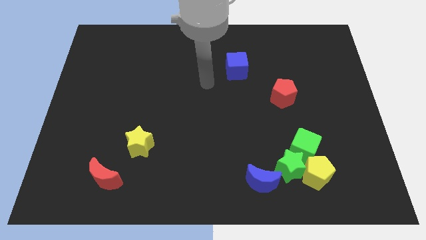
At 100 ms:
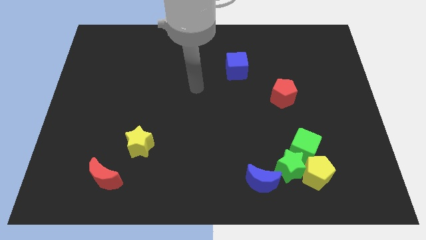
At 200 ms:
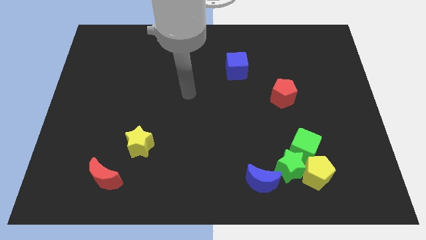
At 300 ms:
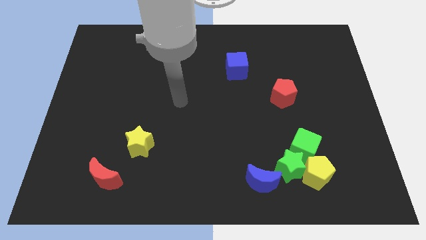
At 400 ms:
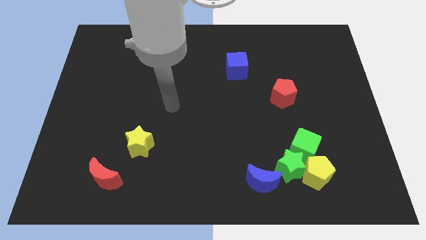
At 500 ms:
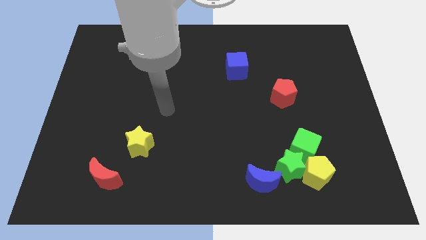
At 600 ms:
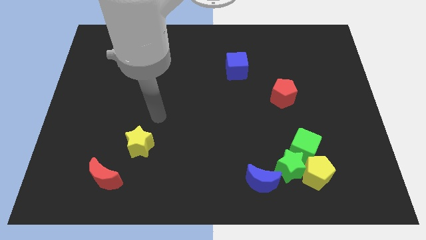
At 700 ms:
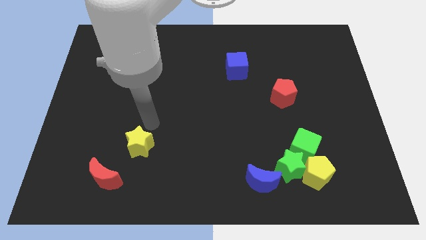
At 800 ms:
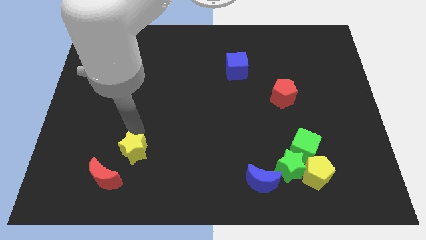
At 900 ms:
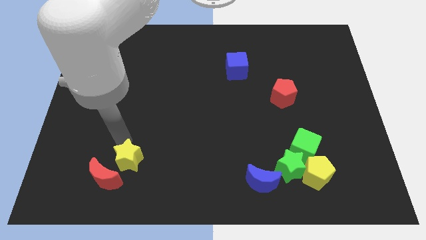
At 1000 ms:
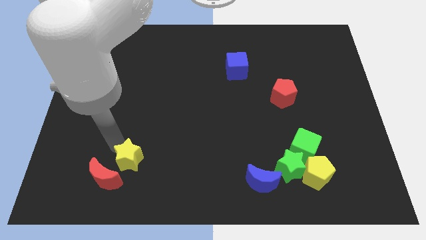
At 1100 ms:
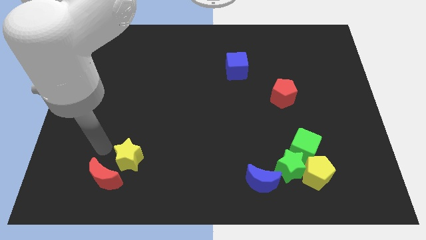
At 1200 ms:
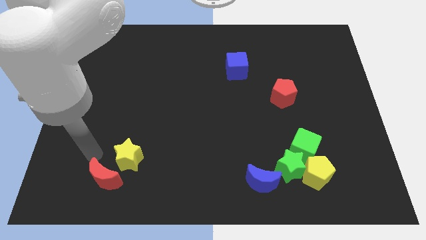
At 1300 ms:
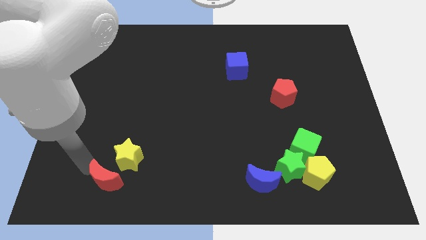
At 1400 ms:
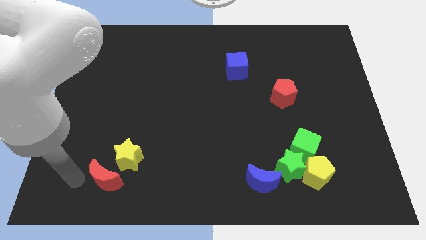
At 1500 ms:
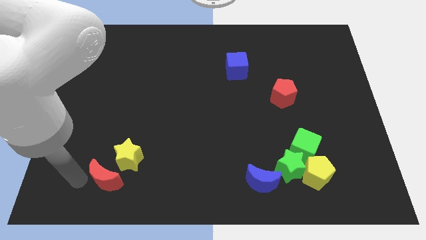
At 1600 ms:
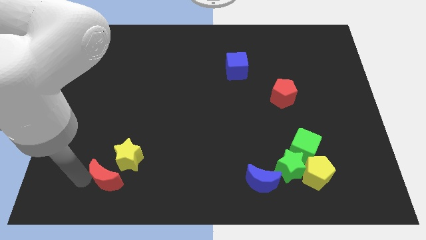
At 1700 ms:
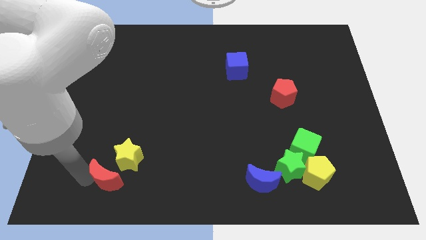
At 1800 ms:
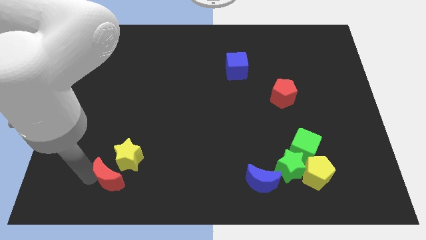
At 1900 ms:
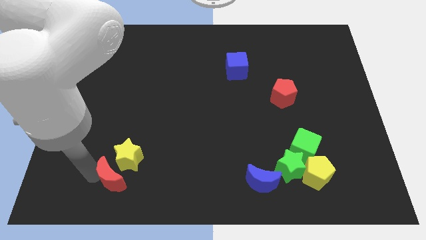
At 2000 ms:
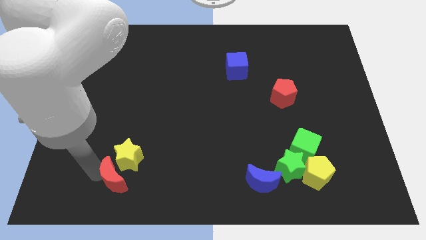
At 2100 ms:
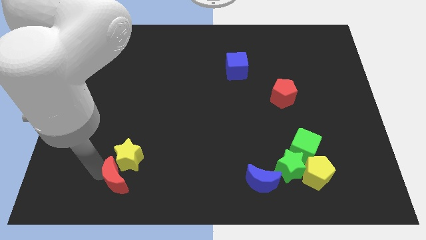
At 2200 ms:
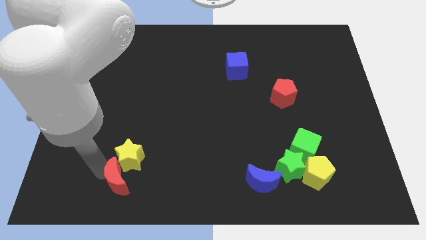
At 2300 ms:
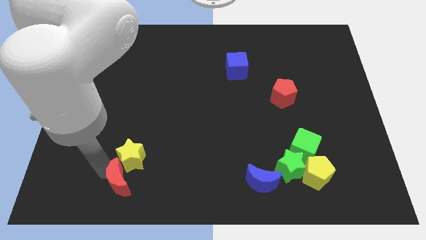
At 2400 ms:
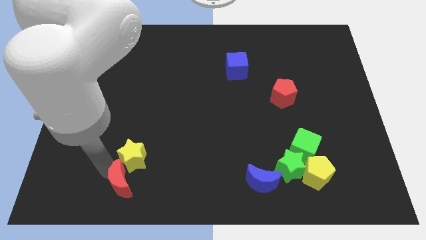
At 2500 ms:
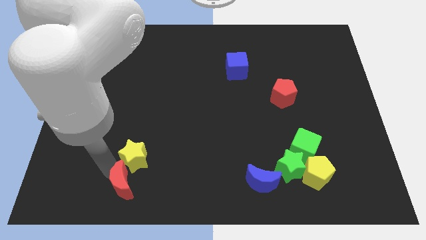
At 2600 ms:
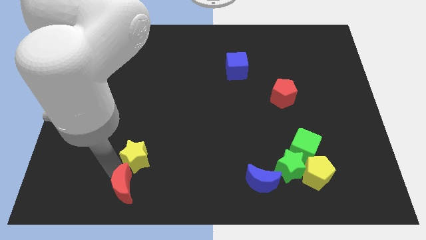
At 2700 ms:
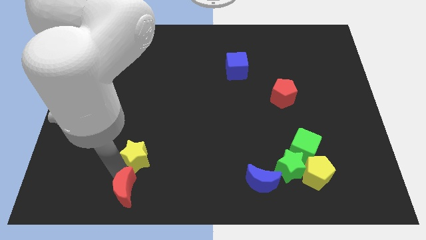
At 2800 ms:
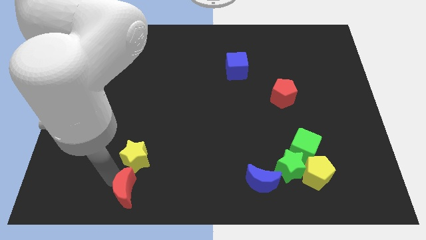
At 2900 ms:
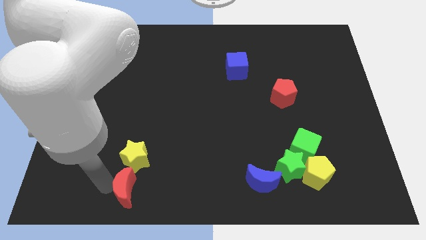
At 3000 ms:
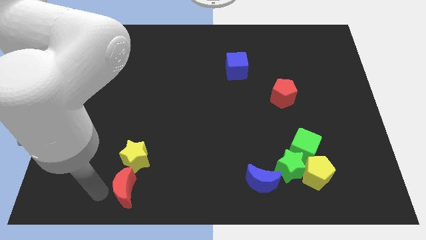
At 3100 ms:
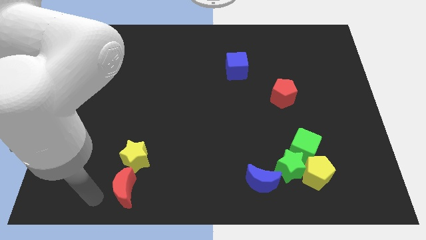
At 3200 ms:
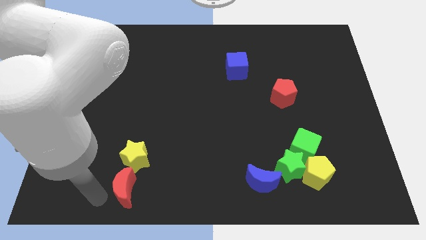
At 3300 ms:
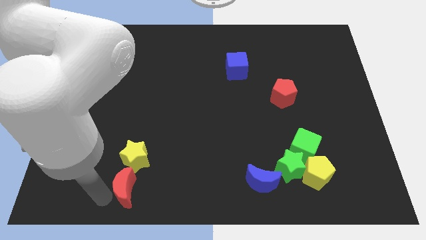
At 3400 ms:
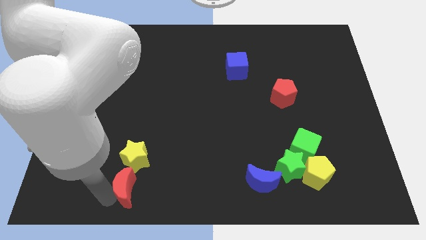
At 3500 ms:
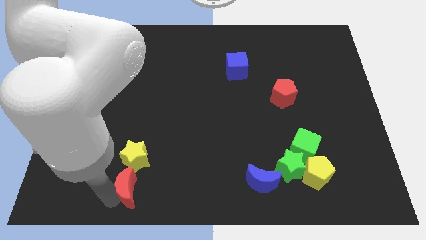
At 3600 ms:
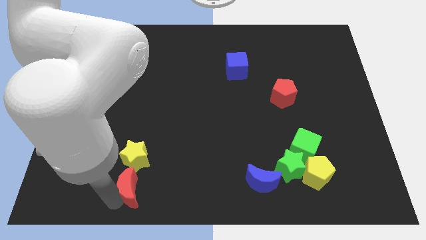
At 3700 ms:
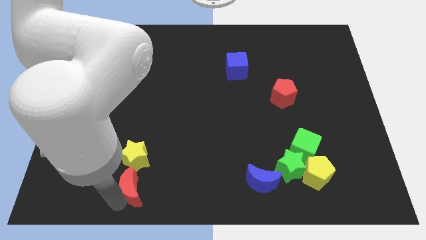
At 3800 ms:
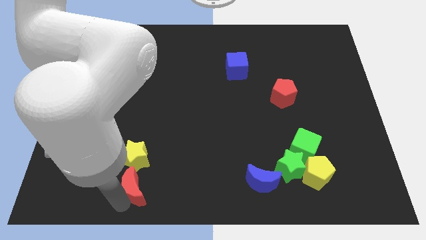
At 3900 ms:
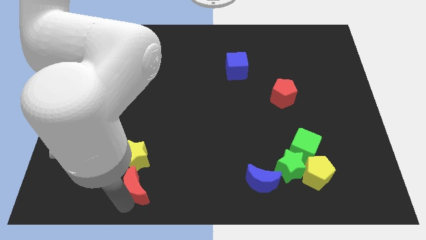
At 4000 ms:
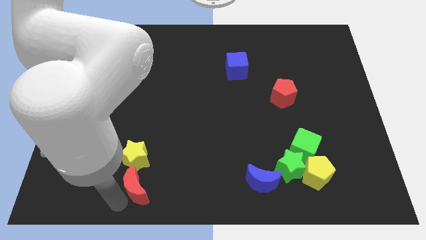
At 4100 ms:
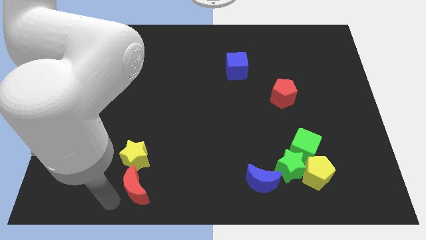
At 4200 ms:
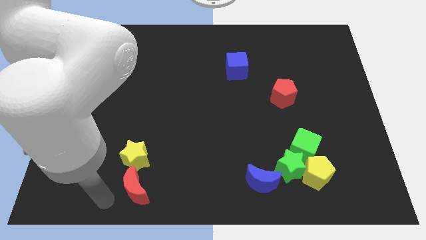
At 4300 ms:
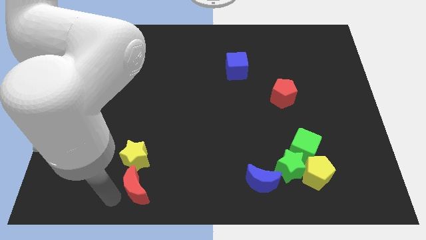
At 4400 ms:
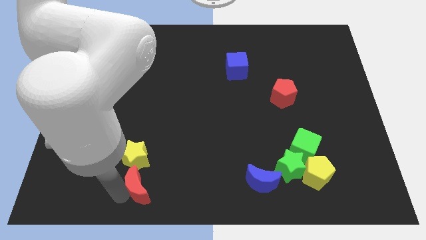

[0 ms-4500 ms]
slightly slide the red moon right

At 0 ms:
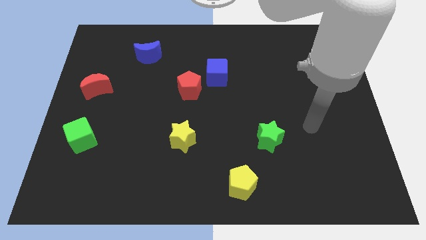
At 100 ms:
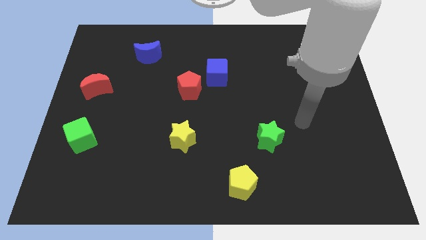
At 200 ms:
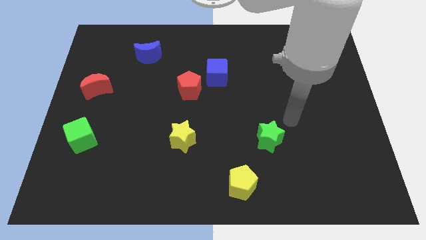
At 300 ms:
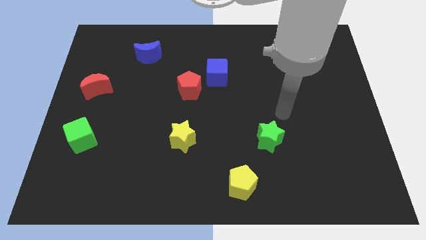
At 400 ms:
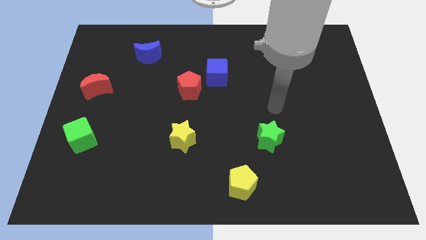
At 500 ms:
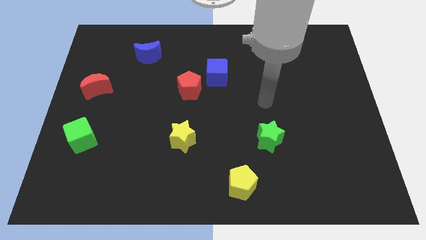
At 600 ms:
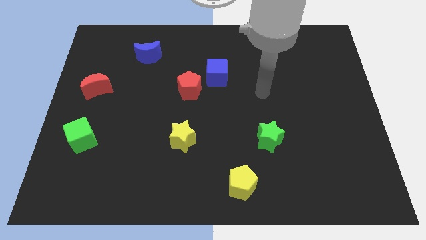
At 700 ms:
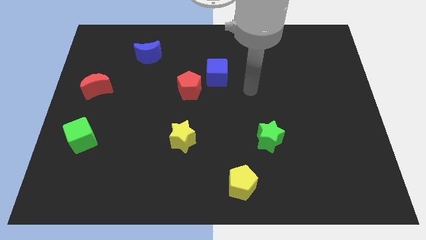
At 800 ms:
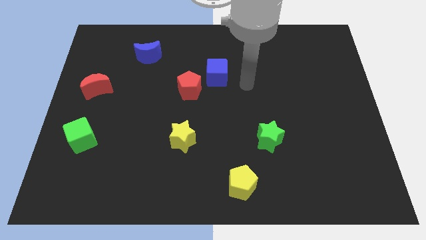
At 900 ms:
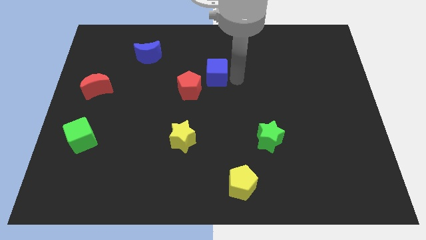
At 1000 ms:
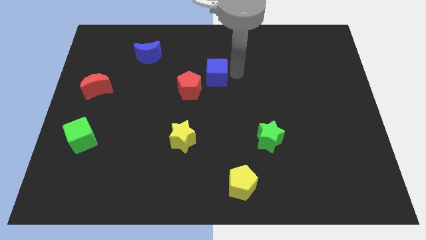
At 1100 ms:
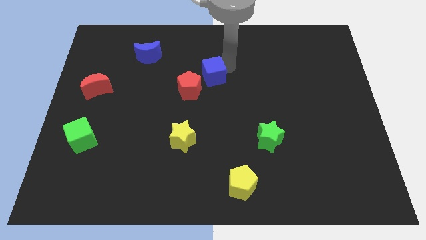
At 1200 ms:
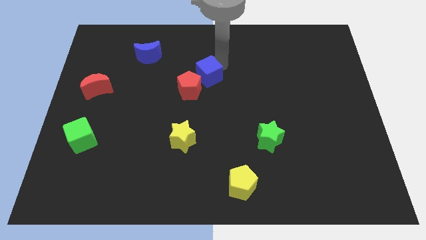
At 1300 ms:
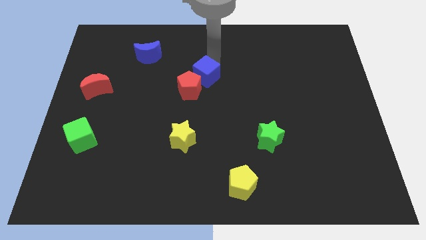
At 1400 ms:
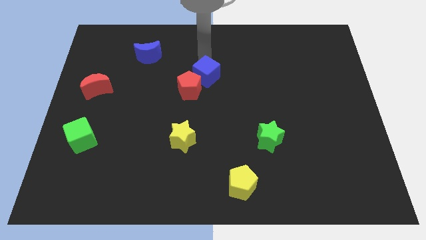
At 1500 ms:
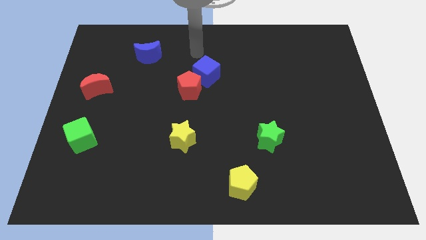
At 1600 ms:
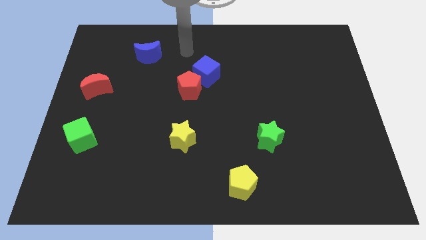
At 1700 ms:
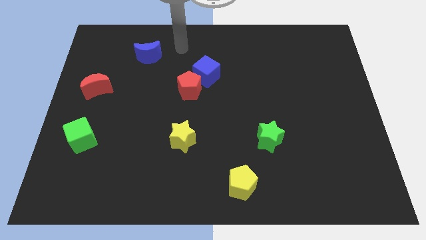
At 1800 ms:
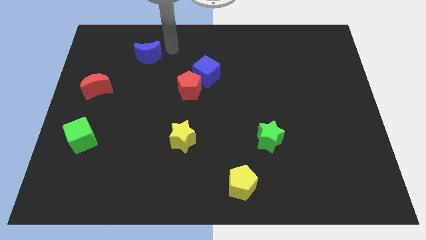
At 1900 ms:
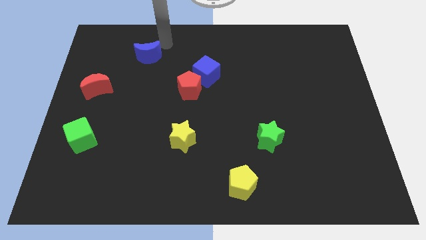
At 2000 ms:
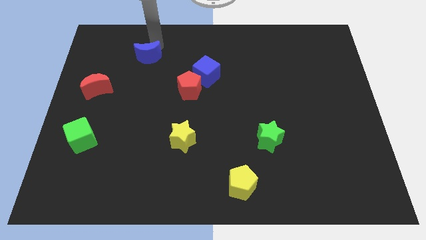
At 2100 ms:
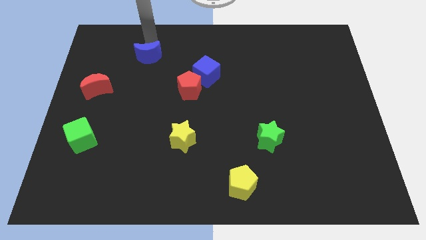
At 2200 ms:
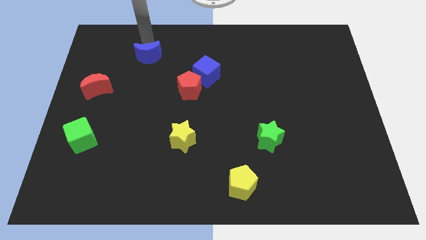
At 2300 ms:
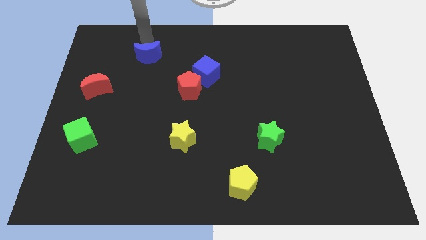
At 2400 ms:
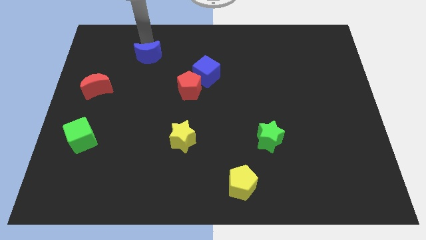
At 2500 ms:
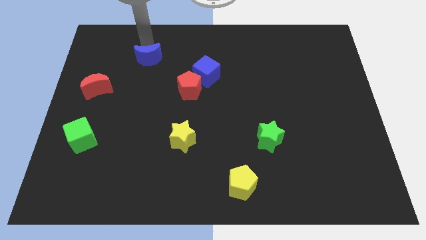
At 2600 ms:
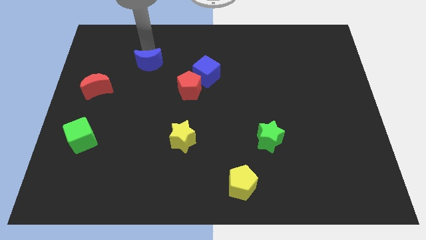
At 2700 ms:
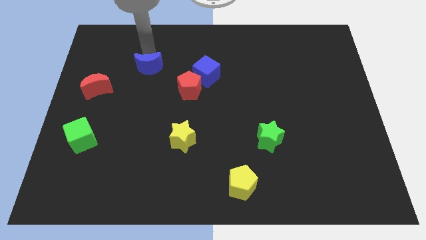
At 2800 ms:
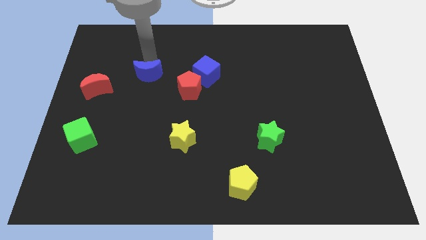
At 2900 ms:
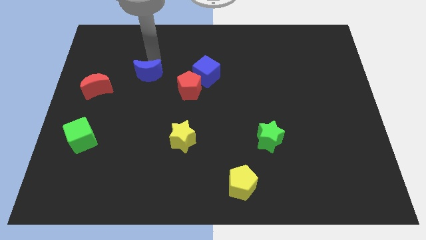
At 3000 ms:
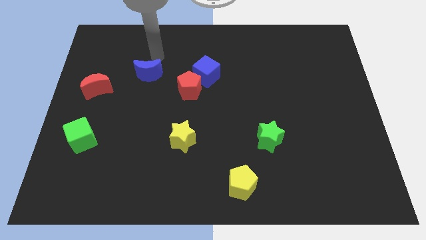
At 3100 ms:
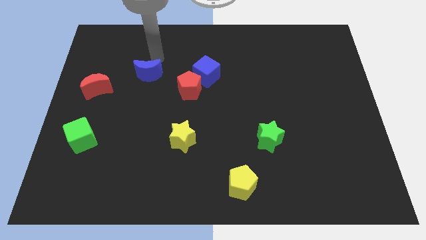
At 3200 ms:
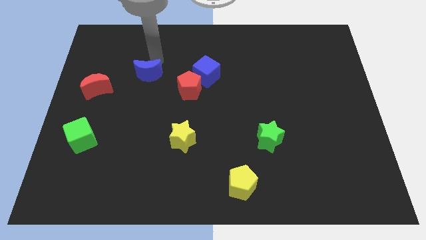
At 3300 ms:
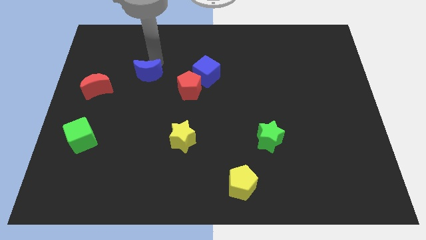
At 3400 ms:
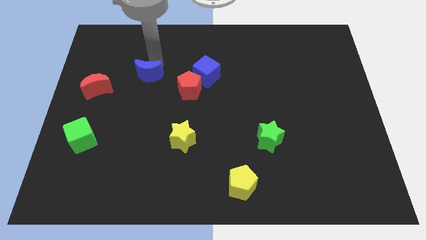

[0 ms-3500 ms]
move the blue moon a bit downwards

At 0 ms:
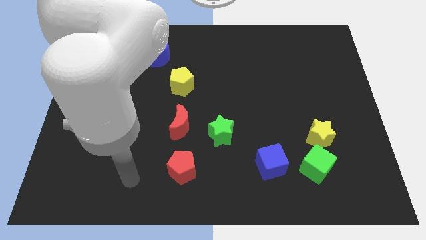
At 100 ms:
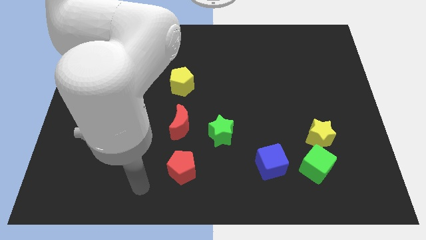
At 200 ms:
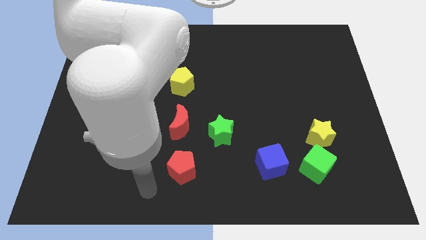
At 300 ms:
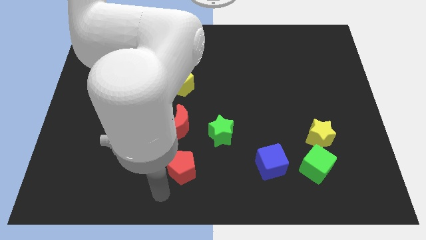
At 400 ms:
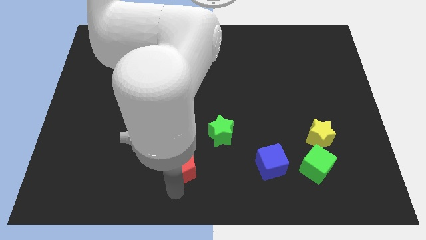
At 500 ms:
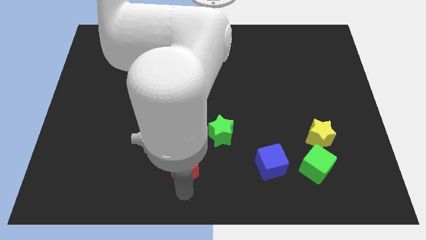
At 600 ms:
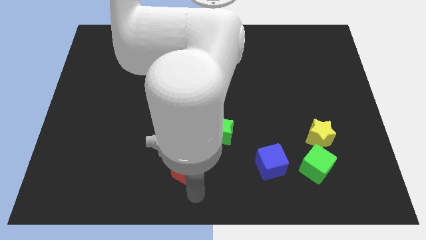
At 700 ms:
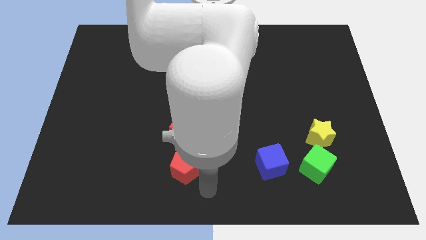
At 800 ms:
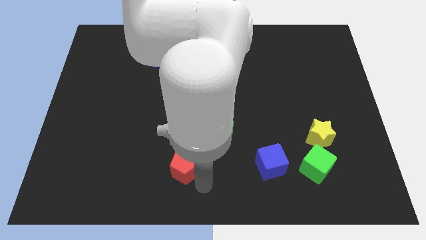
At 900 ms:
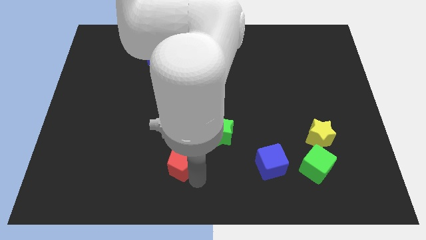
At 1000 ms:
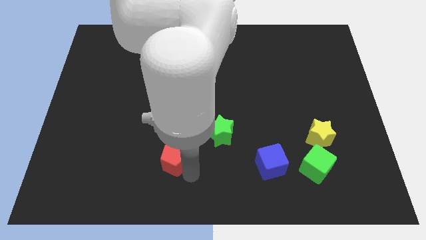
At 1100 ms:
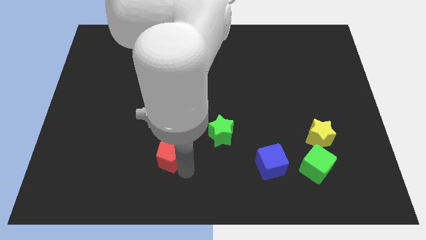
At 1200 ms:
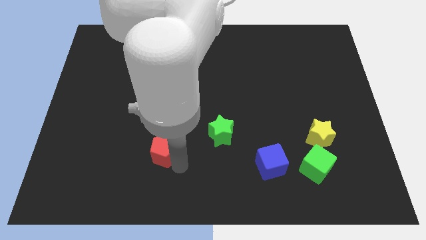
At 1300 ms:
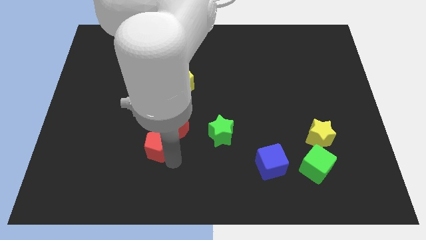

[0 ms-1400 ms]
move the red pentagon a little up and left
